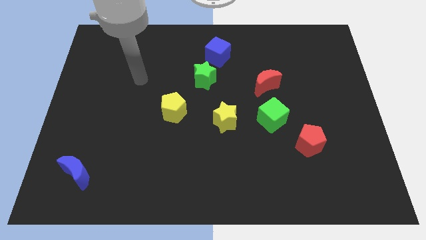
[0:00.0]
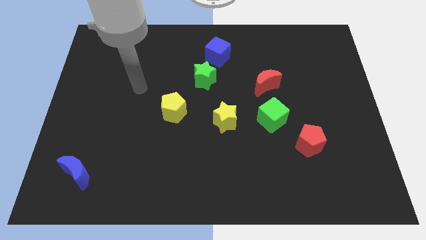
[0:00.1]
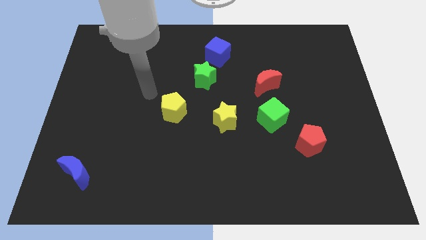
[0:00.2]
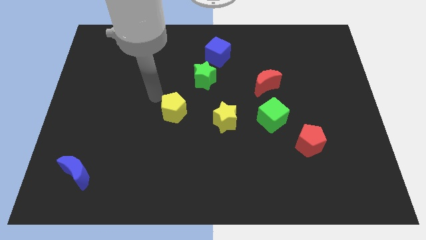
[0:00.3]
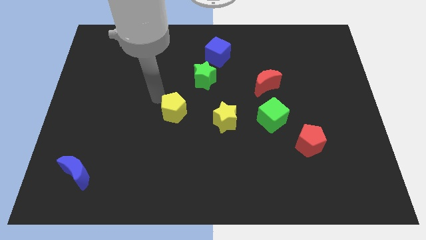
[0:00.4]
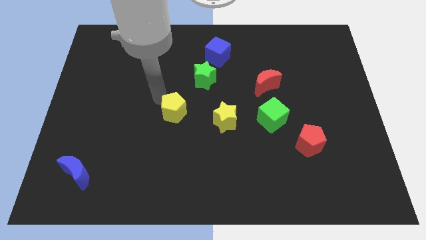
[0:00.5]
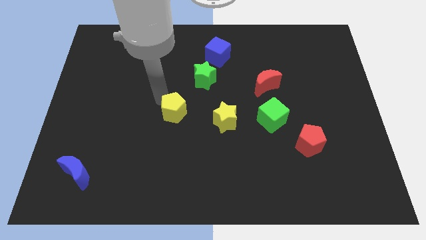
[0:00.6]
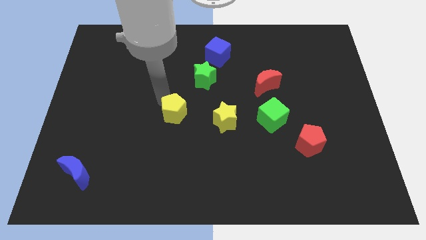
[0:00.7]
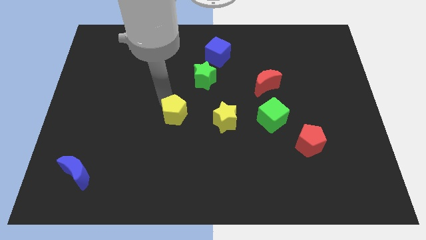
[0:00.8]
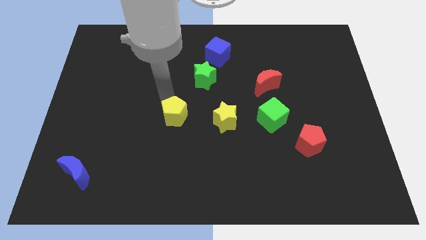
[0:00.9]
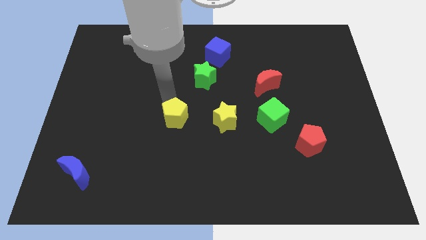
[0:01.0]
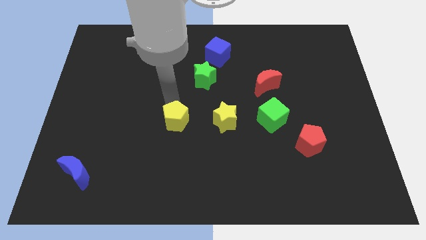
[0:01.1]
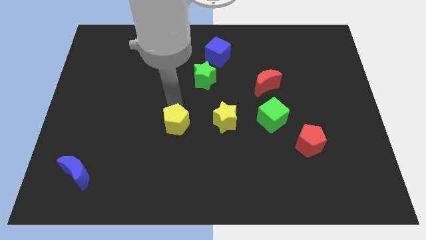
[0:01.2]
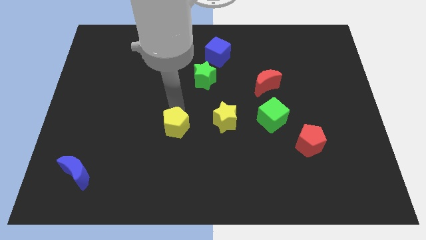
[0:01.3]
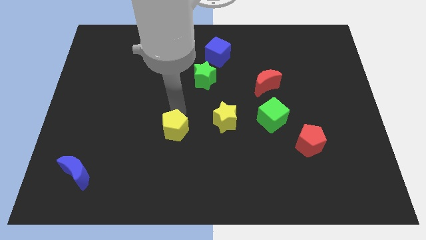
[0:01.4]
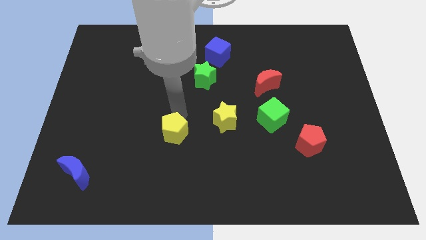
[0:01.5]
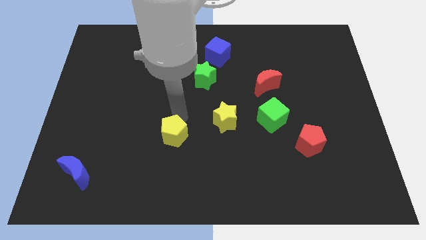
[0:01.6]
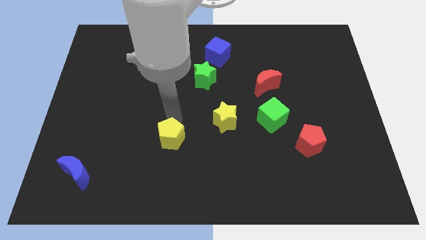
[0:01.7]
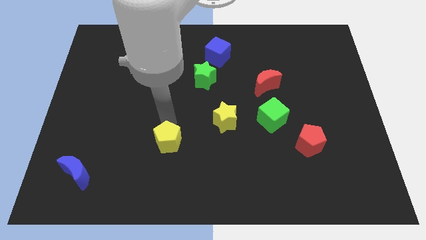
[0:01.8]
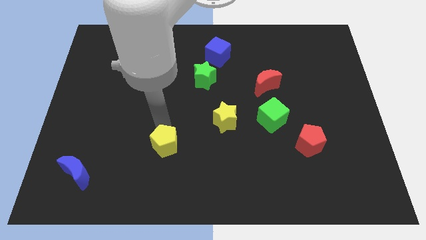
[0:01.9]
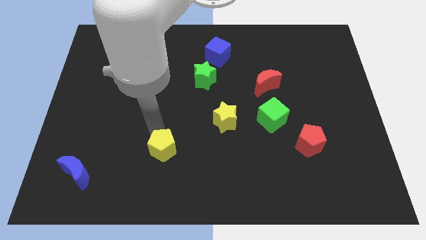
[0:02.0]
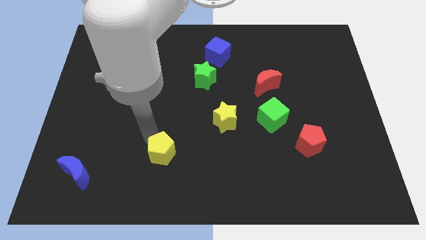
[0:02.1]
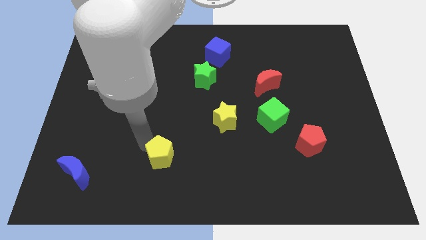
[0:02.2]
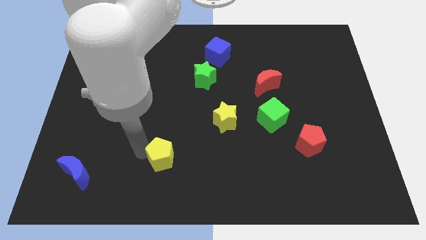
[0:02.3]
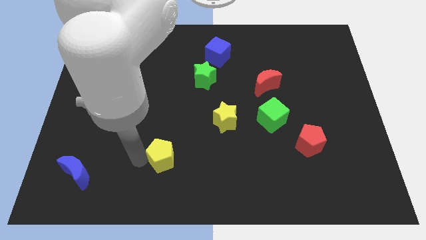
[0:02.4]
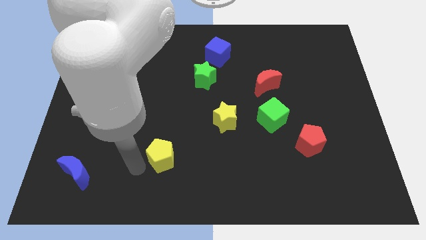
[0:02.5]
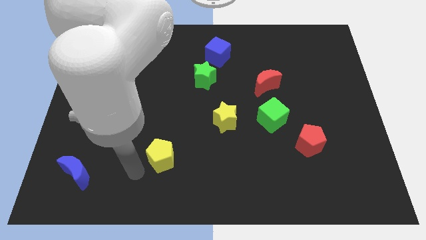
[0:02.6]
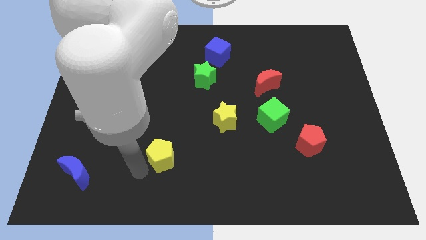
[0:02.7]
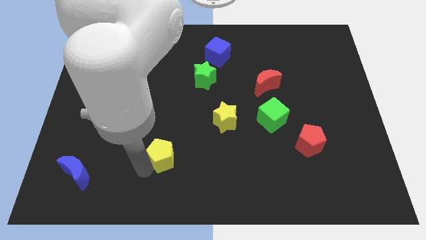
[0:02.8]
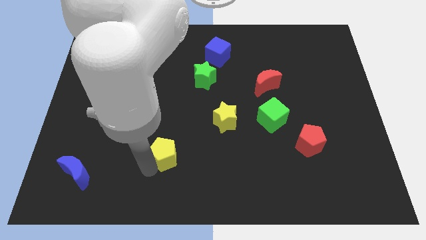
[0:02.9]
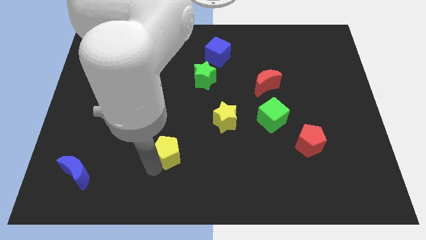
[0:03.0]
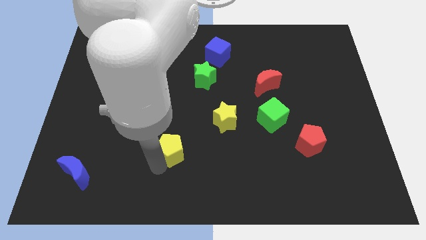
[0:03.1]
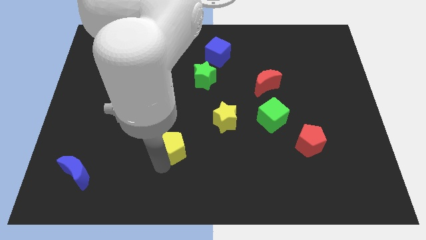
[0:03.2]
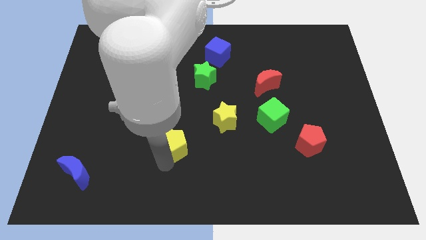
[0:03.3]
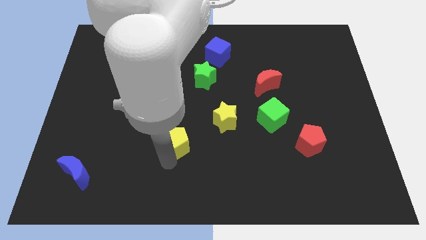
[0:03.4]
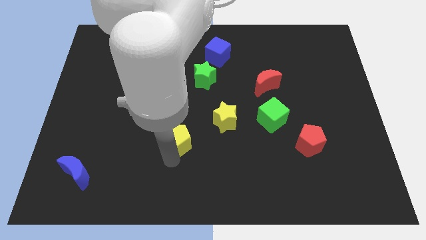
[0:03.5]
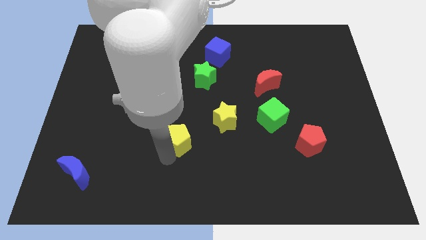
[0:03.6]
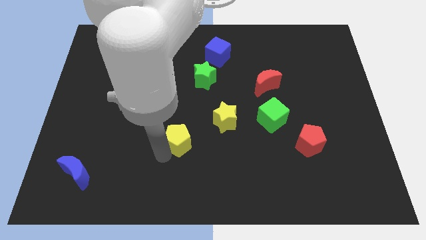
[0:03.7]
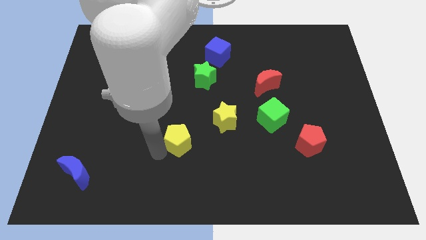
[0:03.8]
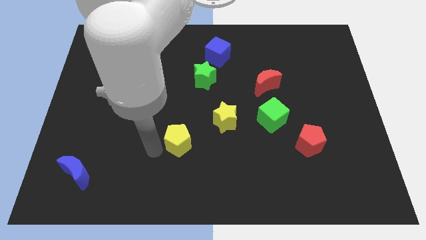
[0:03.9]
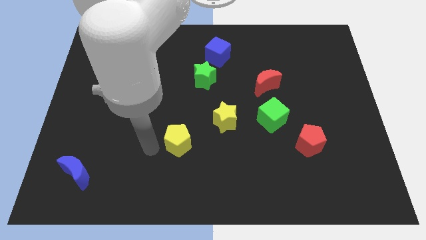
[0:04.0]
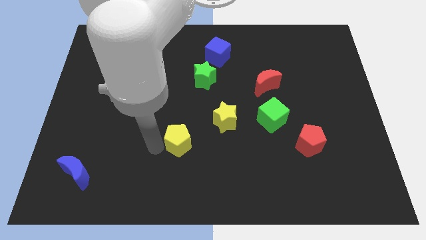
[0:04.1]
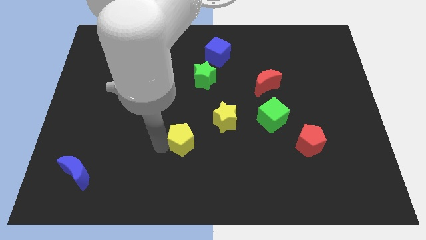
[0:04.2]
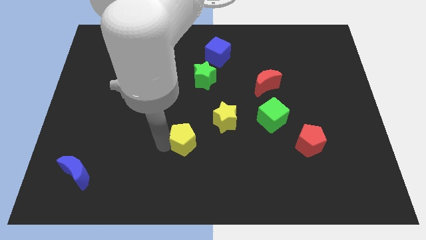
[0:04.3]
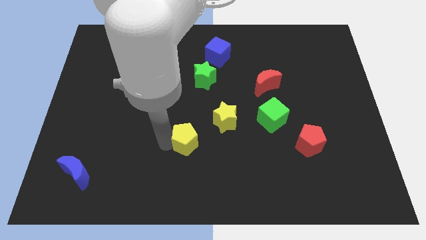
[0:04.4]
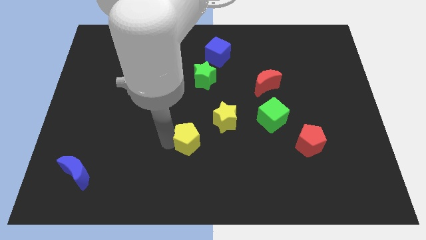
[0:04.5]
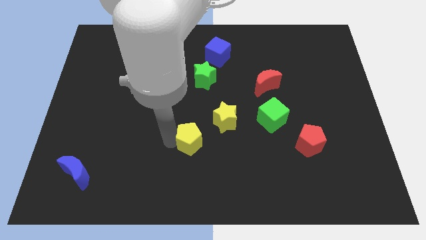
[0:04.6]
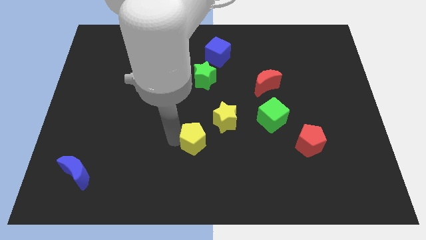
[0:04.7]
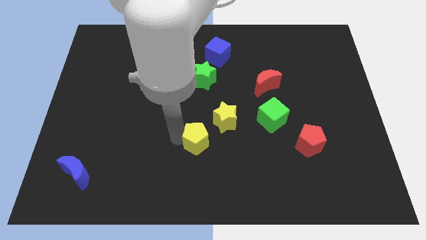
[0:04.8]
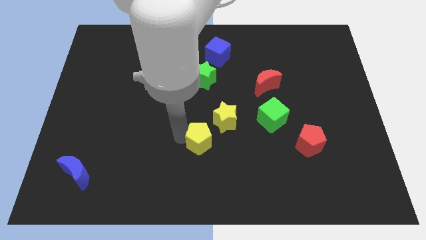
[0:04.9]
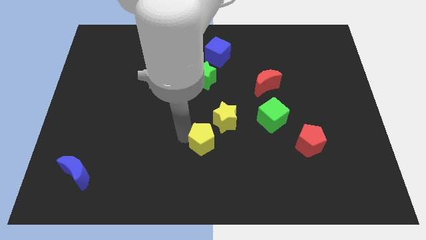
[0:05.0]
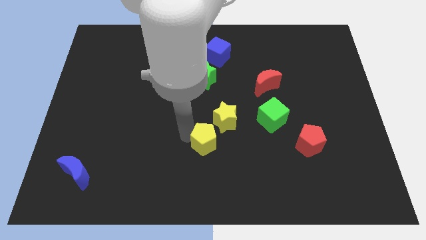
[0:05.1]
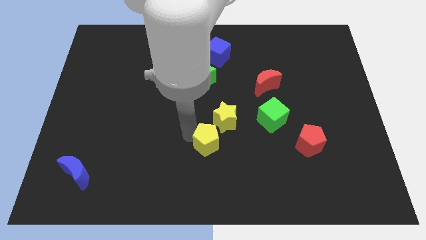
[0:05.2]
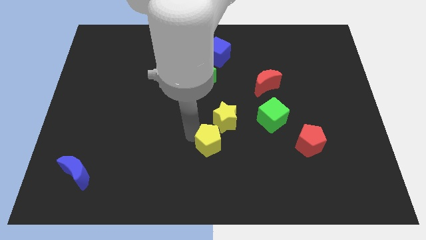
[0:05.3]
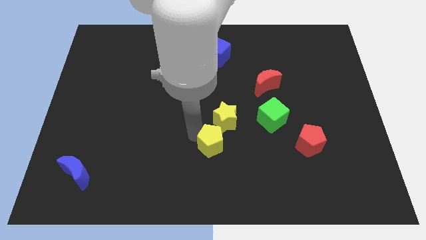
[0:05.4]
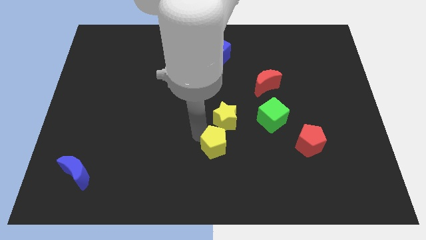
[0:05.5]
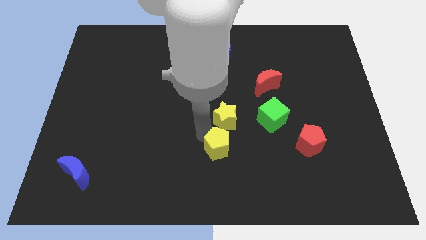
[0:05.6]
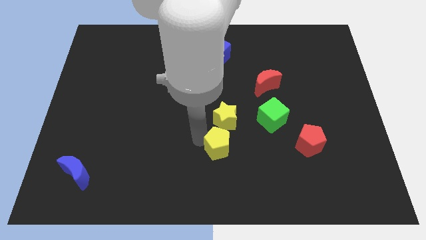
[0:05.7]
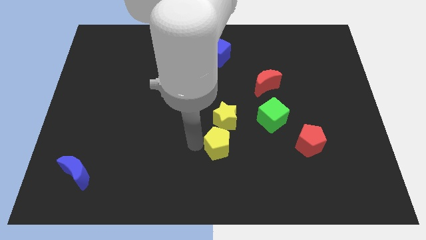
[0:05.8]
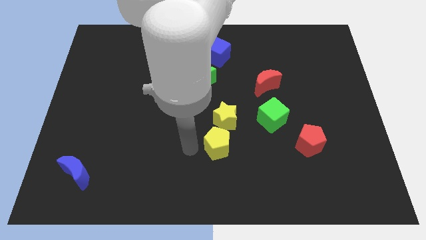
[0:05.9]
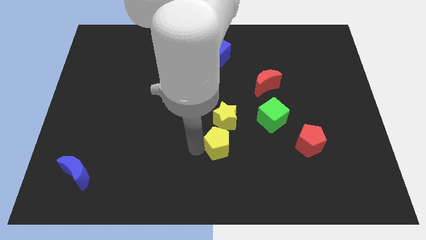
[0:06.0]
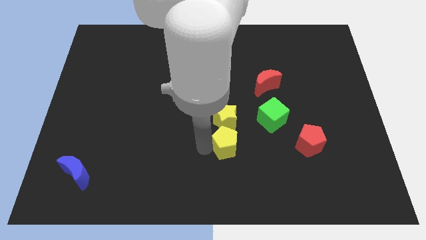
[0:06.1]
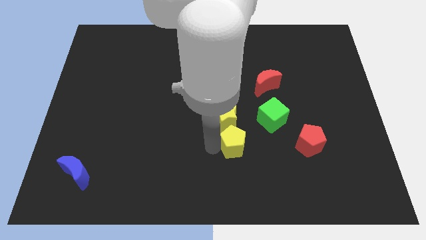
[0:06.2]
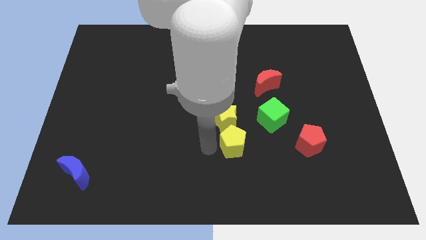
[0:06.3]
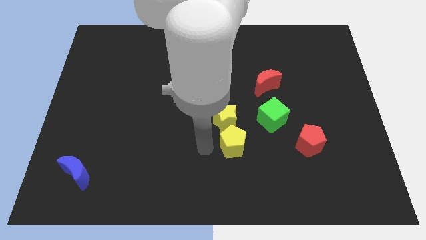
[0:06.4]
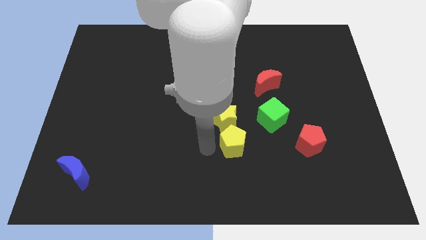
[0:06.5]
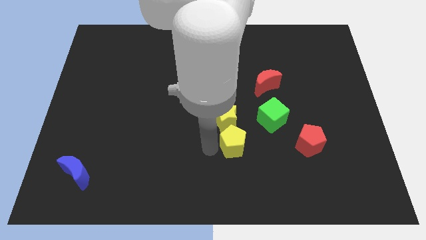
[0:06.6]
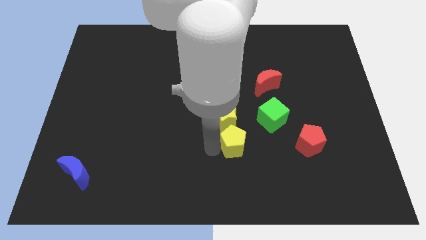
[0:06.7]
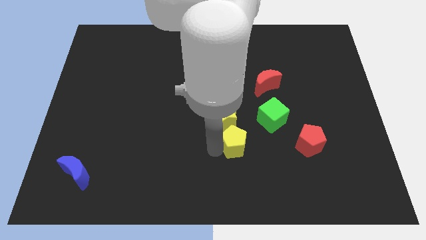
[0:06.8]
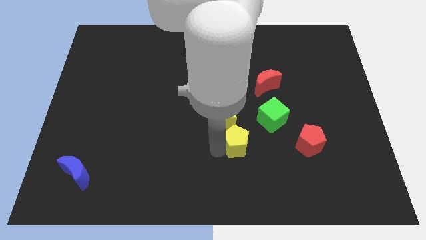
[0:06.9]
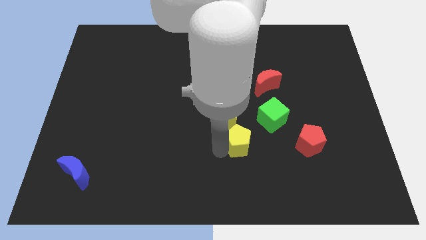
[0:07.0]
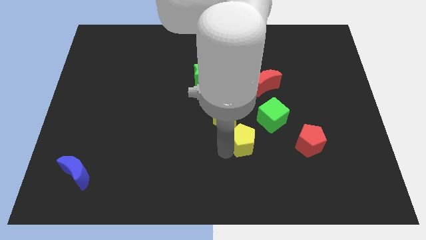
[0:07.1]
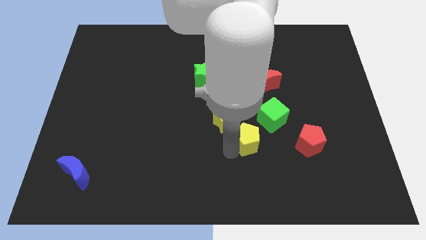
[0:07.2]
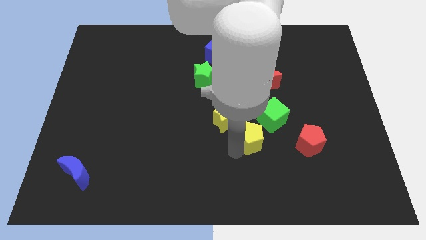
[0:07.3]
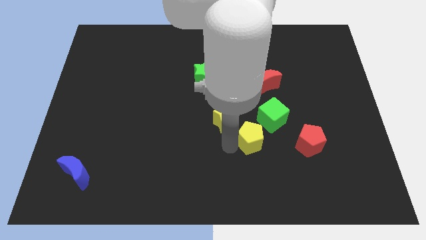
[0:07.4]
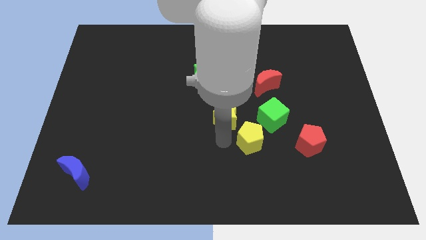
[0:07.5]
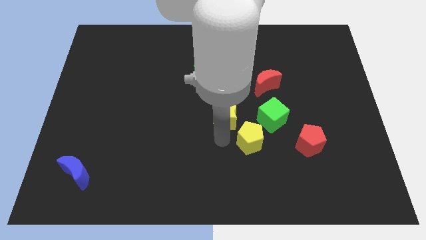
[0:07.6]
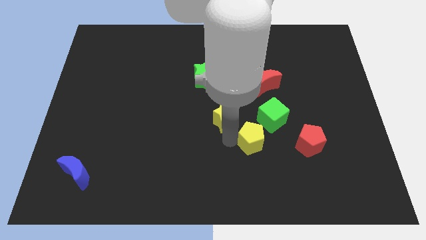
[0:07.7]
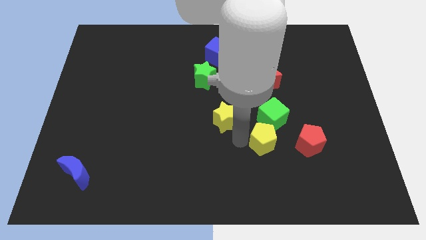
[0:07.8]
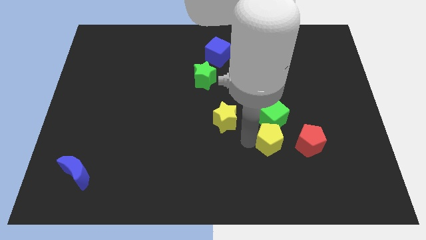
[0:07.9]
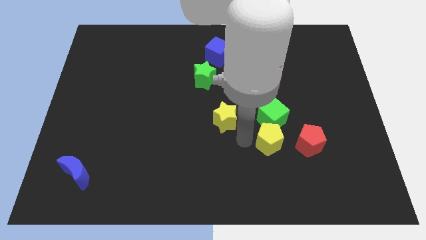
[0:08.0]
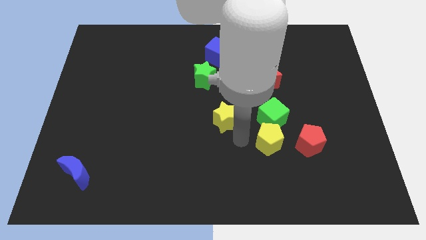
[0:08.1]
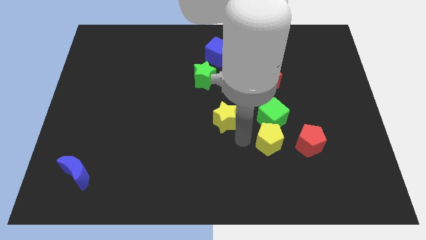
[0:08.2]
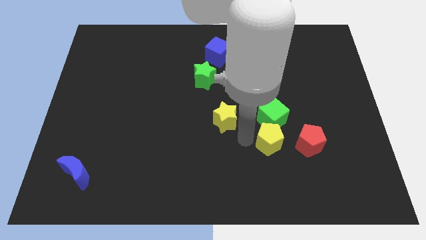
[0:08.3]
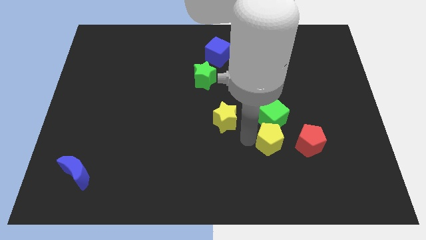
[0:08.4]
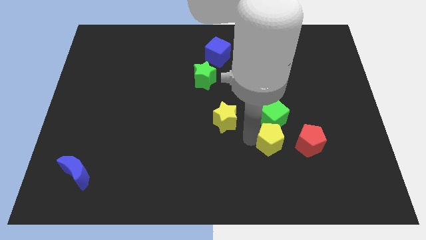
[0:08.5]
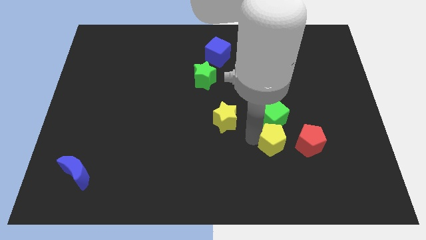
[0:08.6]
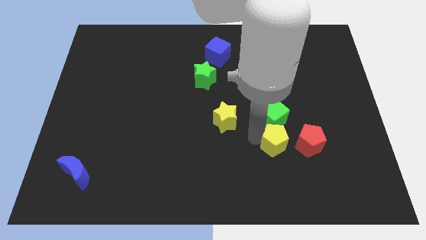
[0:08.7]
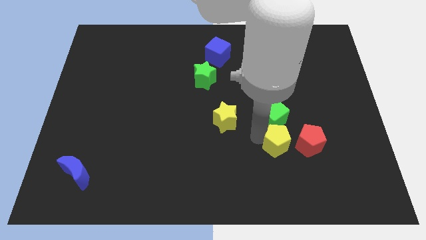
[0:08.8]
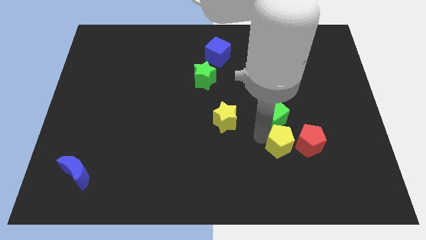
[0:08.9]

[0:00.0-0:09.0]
slide the yellow pentagon close to the red pentagon
